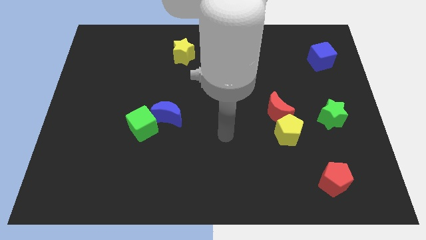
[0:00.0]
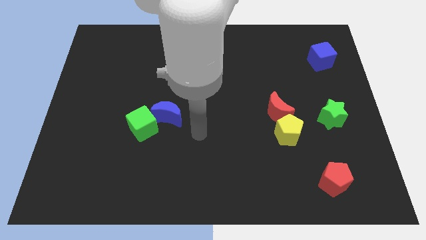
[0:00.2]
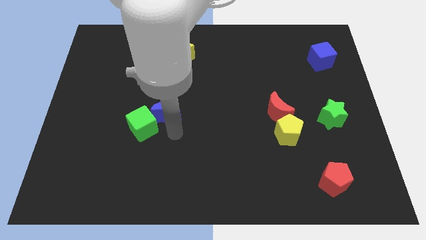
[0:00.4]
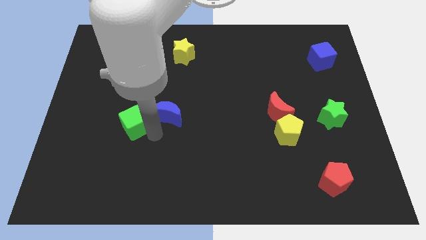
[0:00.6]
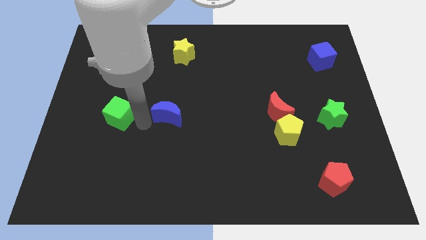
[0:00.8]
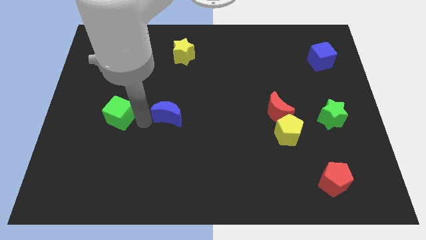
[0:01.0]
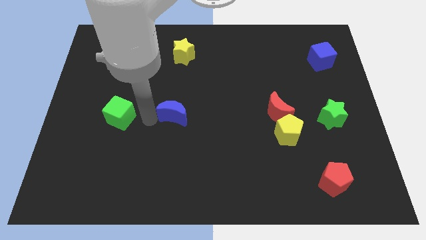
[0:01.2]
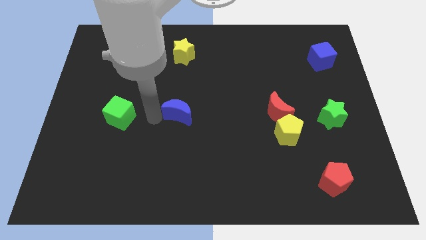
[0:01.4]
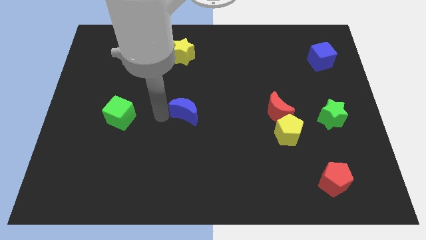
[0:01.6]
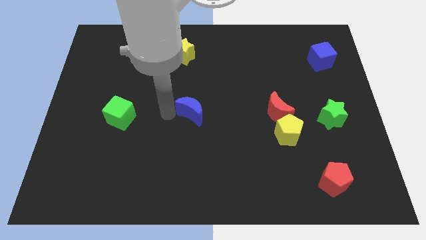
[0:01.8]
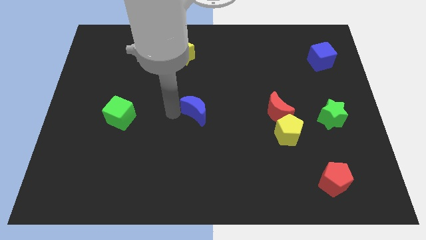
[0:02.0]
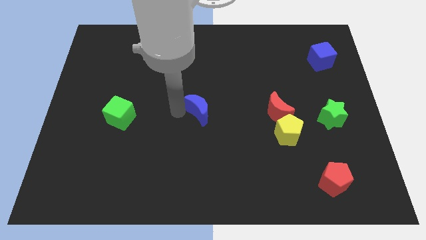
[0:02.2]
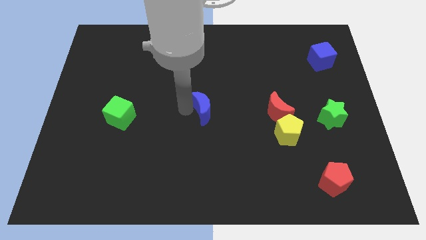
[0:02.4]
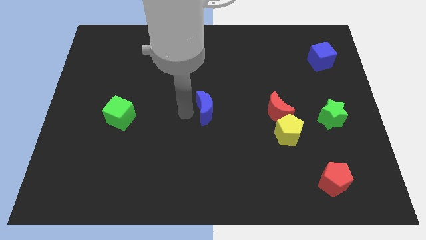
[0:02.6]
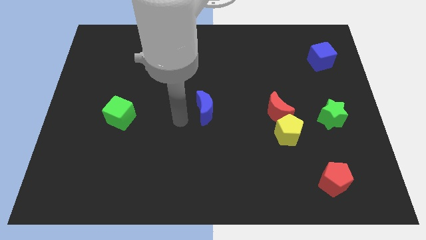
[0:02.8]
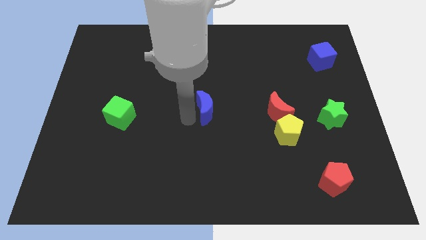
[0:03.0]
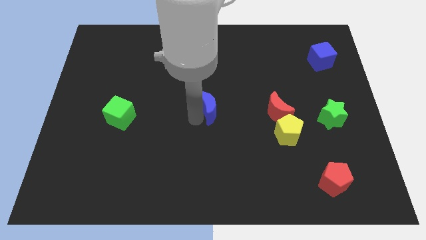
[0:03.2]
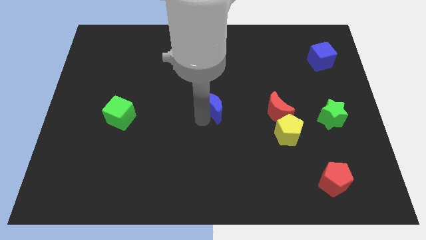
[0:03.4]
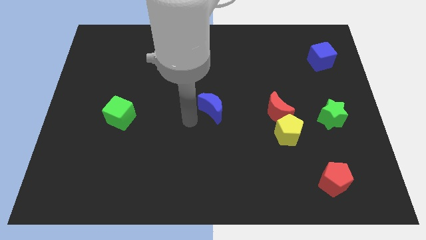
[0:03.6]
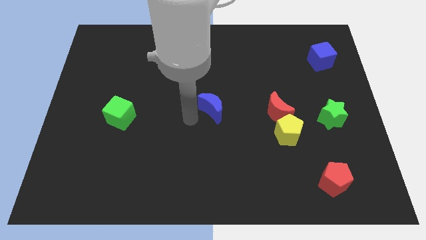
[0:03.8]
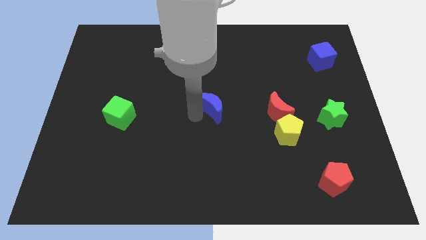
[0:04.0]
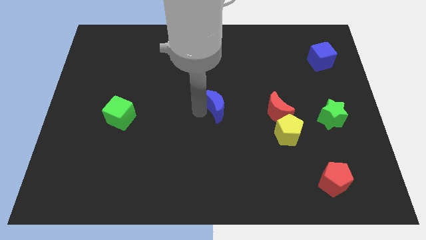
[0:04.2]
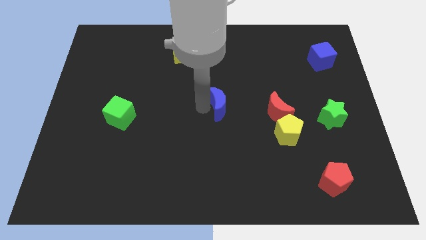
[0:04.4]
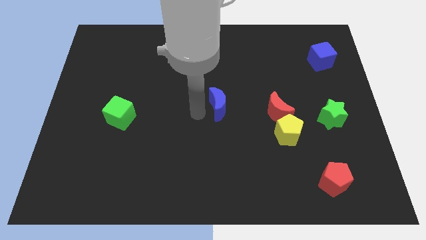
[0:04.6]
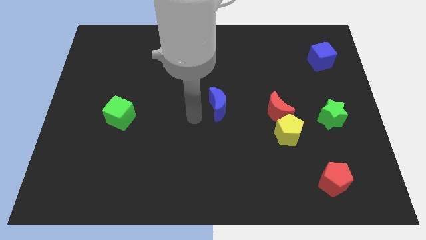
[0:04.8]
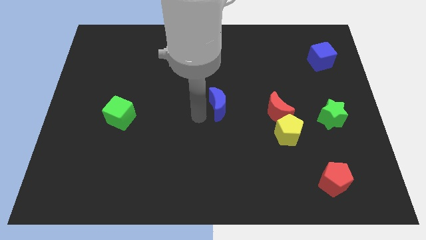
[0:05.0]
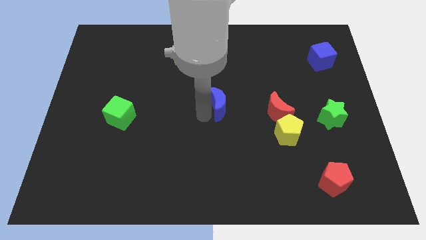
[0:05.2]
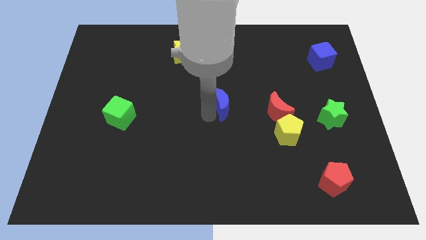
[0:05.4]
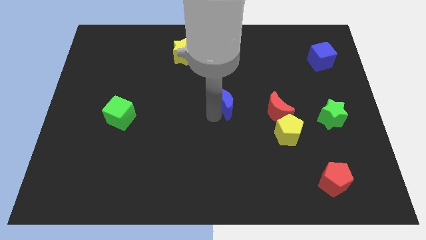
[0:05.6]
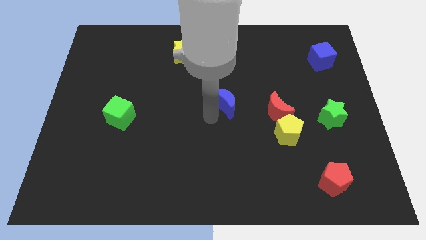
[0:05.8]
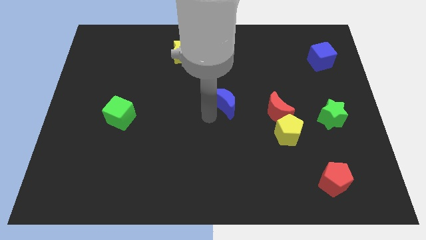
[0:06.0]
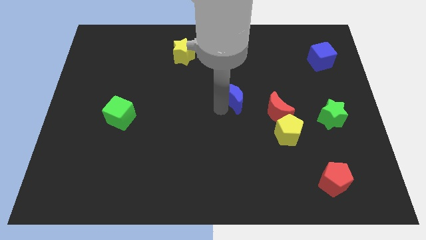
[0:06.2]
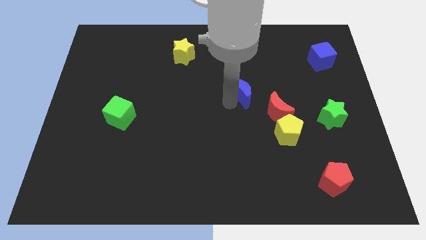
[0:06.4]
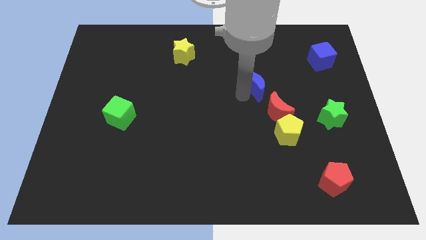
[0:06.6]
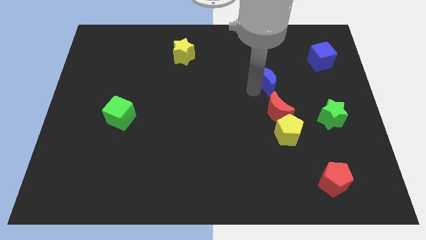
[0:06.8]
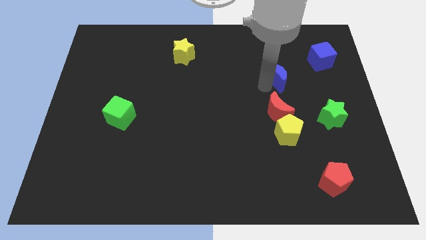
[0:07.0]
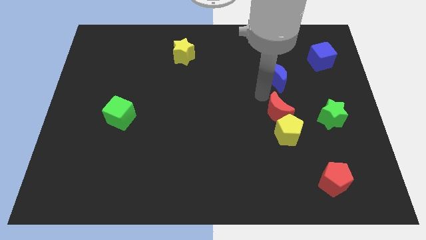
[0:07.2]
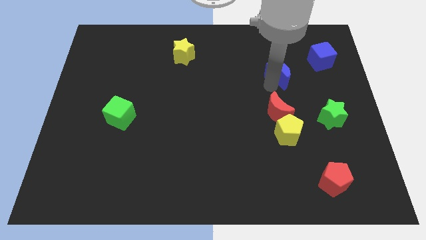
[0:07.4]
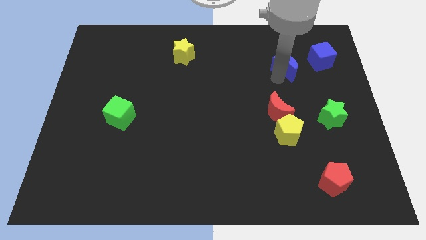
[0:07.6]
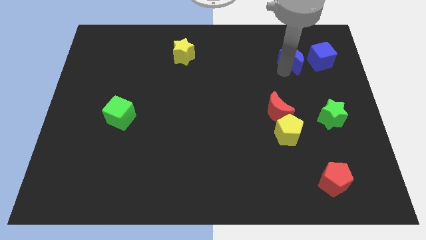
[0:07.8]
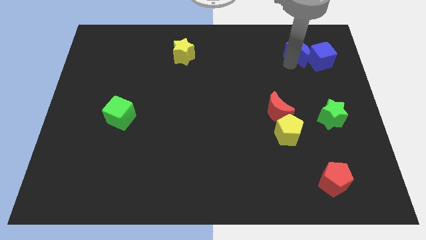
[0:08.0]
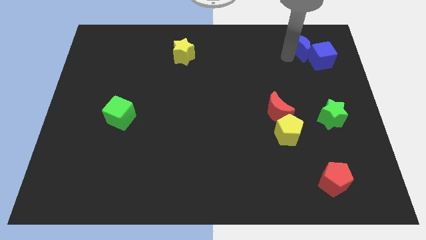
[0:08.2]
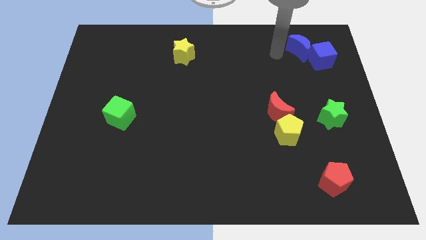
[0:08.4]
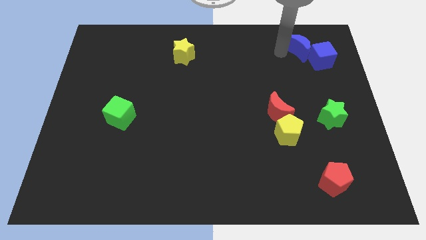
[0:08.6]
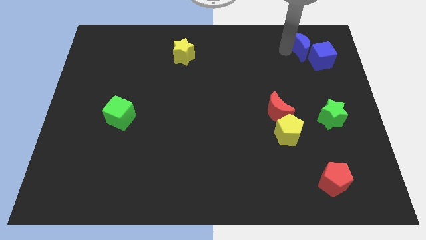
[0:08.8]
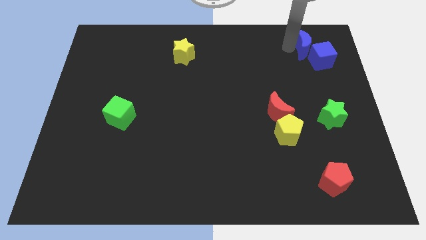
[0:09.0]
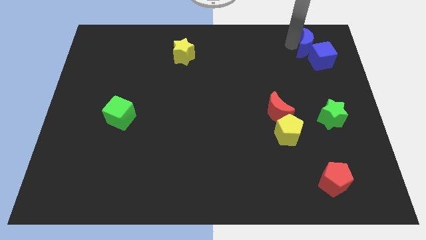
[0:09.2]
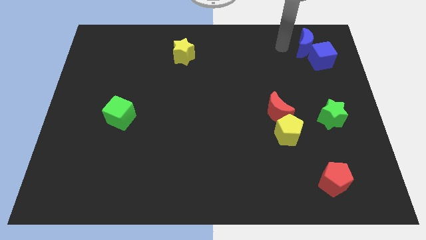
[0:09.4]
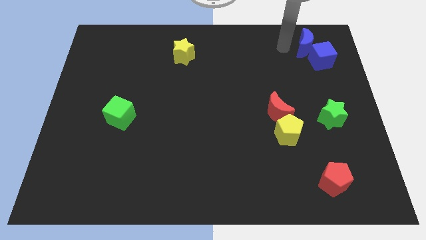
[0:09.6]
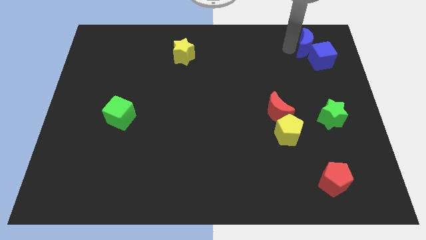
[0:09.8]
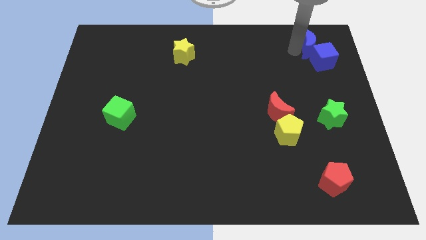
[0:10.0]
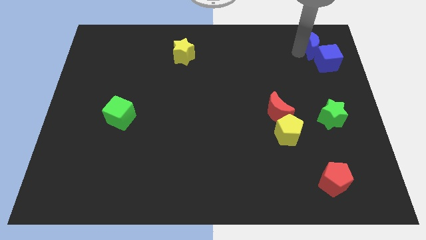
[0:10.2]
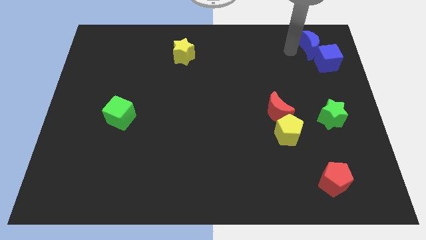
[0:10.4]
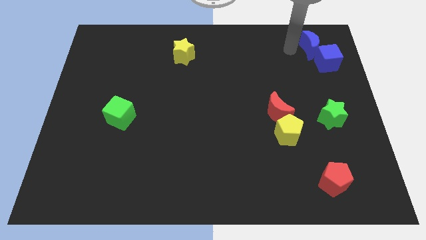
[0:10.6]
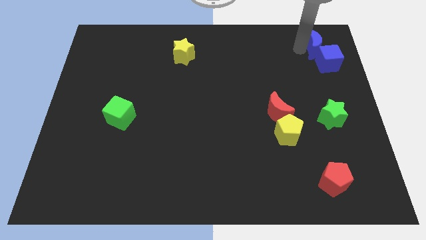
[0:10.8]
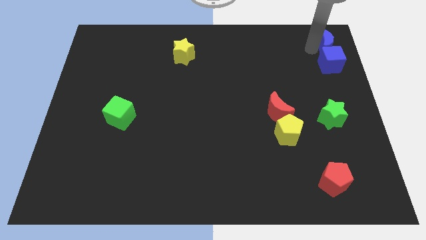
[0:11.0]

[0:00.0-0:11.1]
push the blue moon to the top right corner
